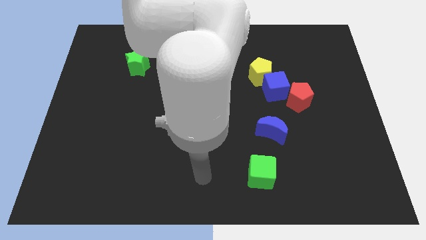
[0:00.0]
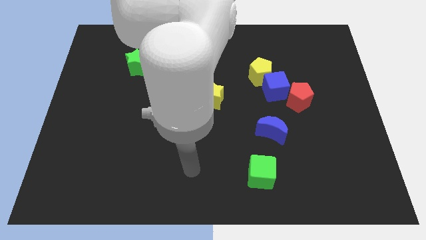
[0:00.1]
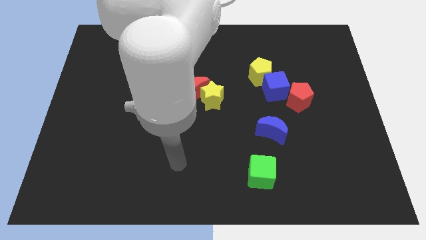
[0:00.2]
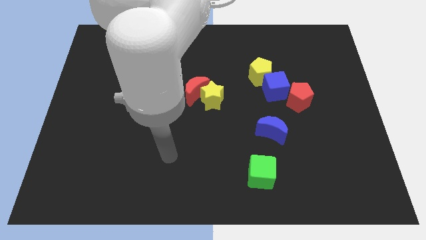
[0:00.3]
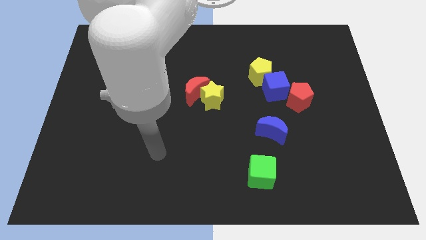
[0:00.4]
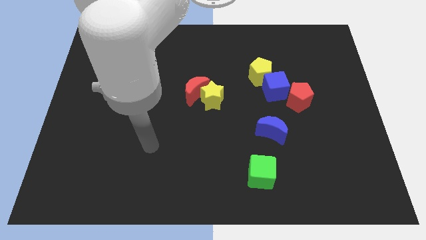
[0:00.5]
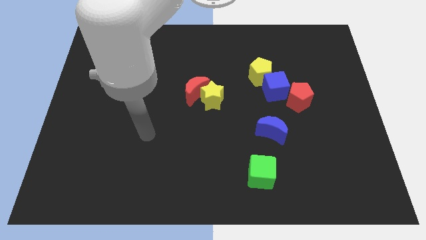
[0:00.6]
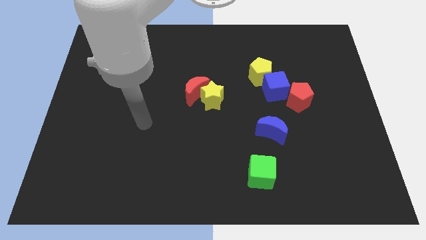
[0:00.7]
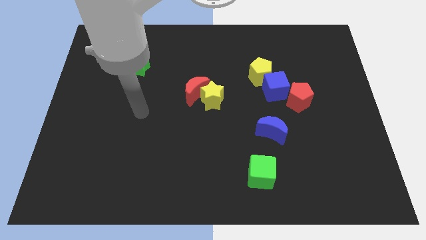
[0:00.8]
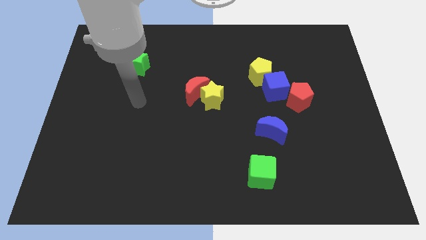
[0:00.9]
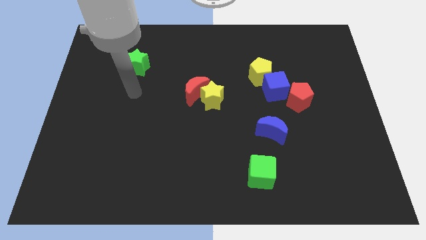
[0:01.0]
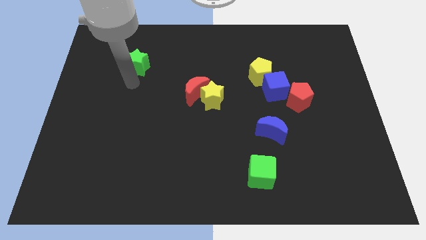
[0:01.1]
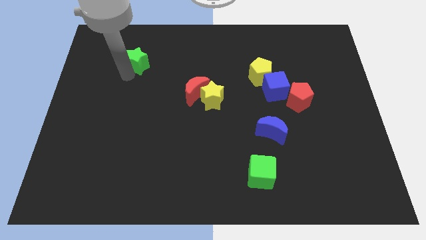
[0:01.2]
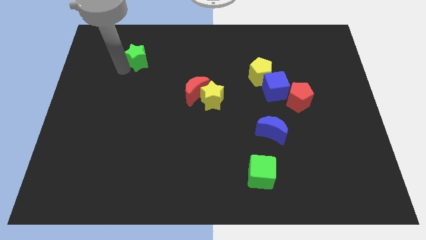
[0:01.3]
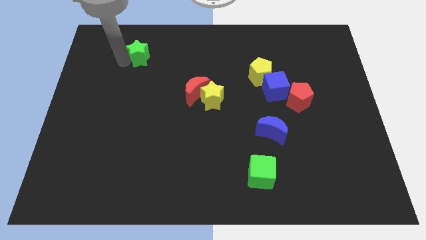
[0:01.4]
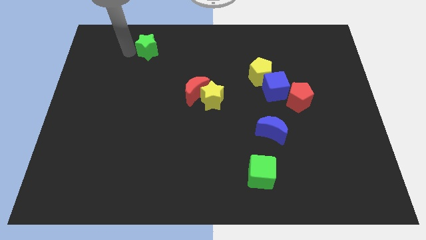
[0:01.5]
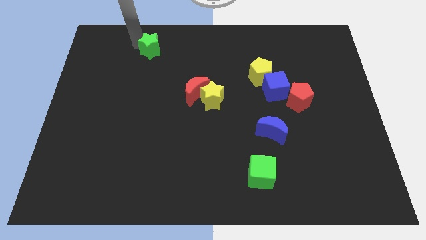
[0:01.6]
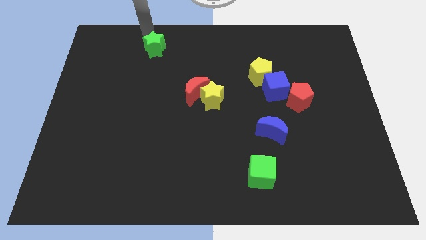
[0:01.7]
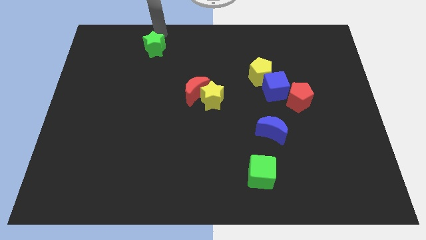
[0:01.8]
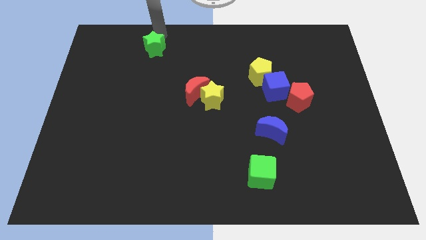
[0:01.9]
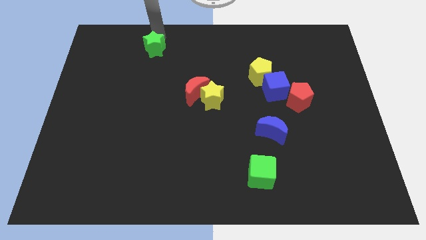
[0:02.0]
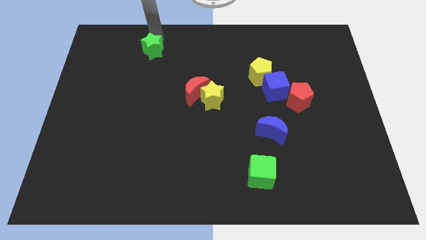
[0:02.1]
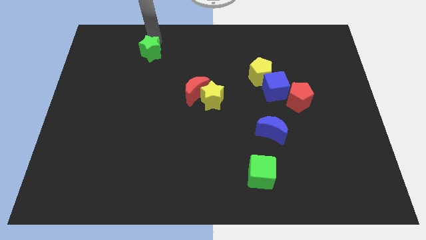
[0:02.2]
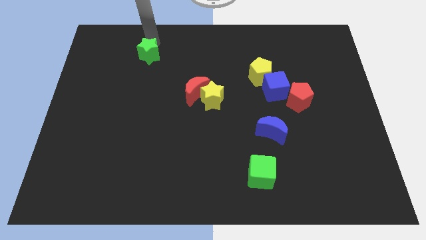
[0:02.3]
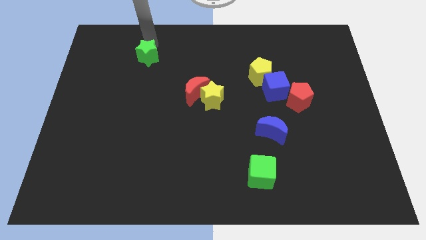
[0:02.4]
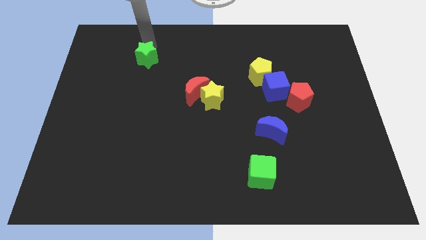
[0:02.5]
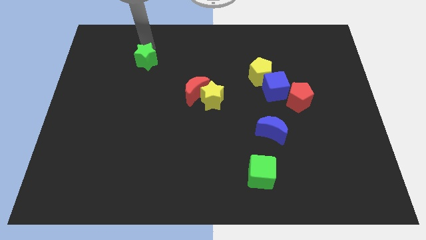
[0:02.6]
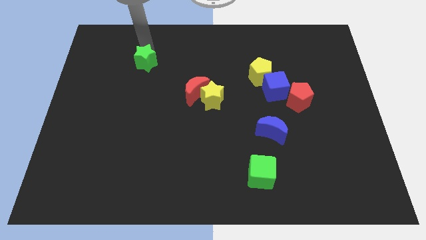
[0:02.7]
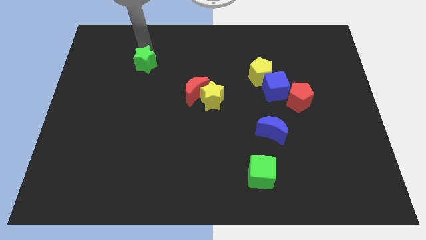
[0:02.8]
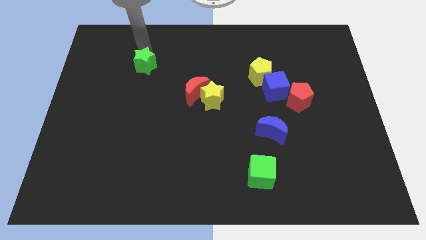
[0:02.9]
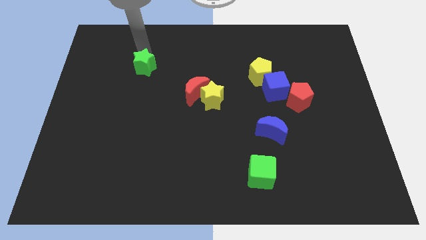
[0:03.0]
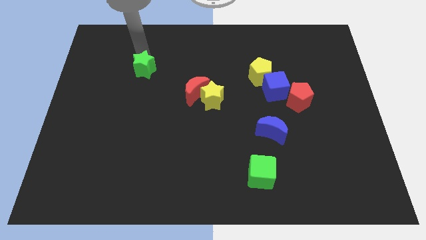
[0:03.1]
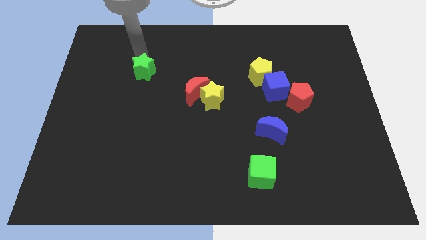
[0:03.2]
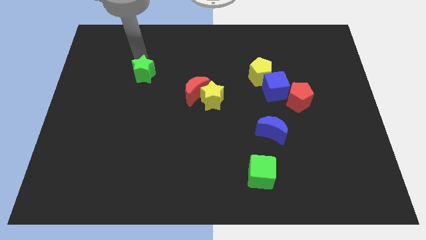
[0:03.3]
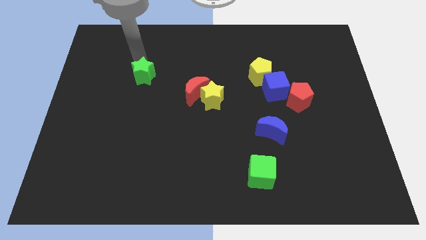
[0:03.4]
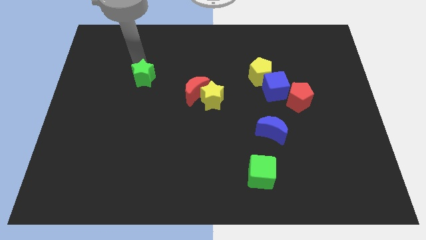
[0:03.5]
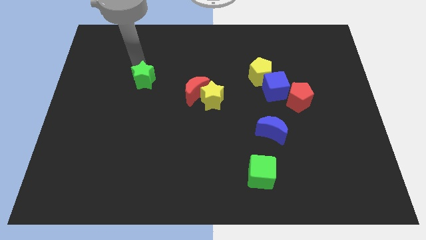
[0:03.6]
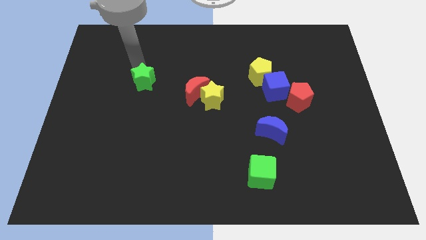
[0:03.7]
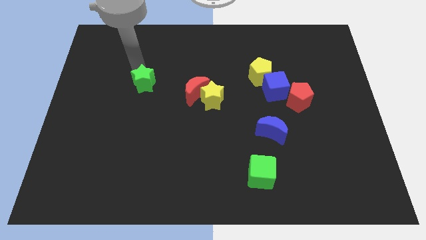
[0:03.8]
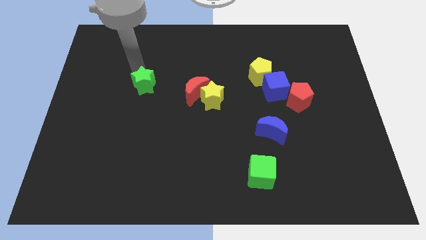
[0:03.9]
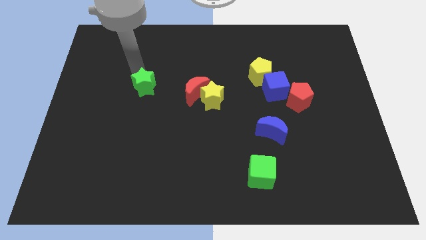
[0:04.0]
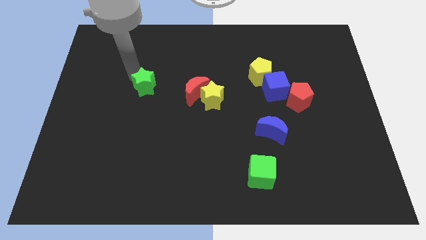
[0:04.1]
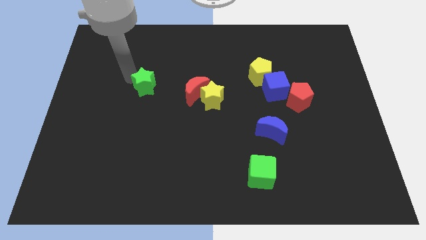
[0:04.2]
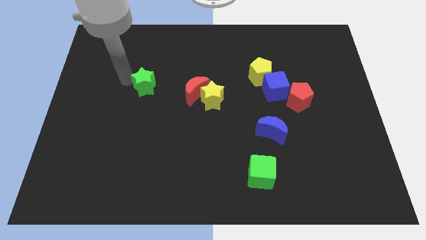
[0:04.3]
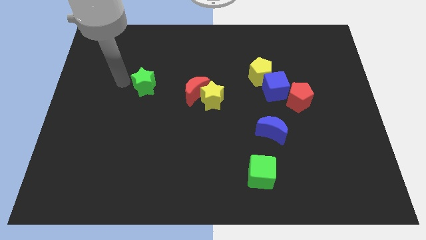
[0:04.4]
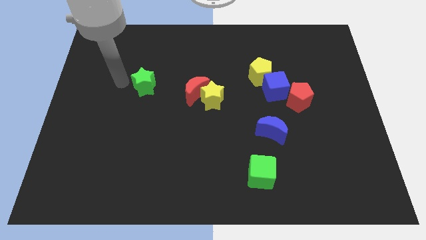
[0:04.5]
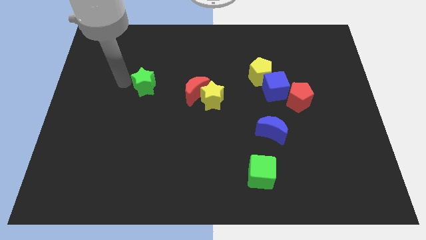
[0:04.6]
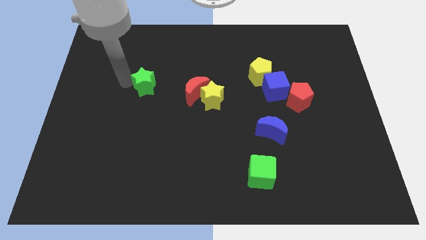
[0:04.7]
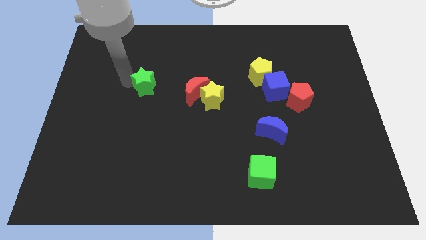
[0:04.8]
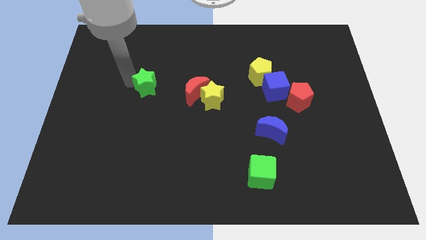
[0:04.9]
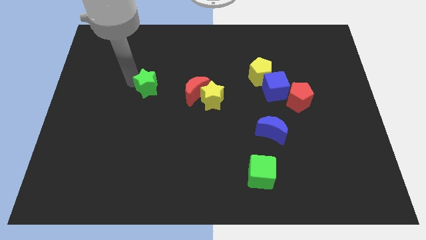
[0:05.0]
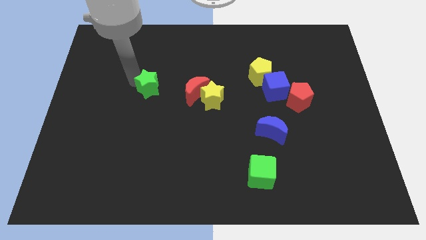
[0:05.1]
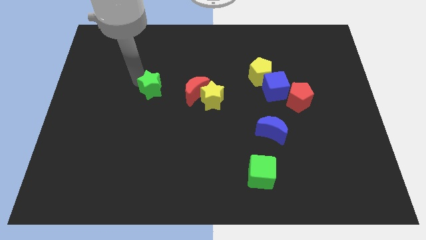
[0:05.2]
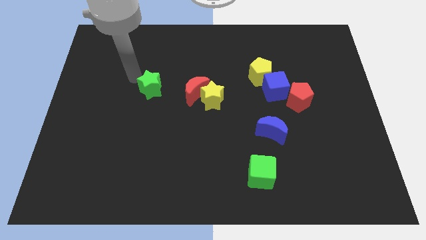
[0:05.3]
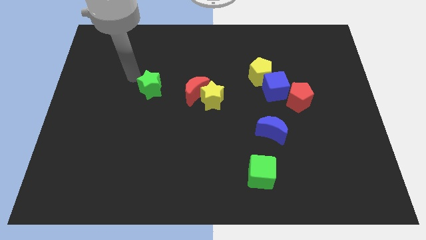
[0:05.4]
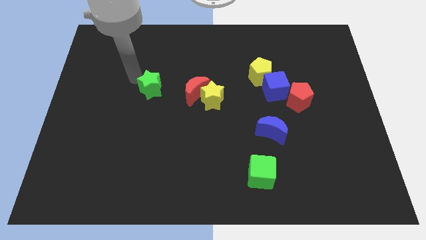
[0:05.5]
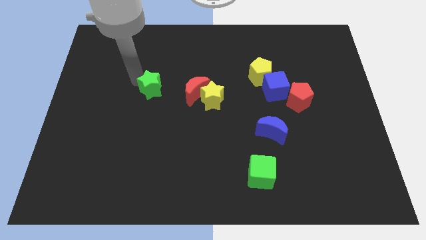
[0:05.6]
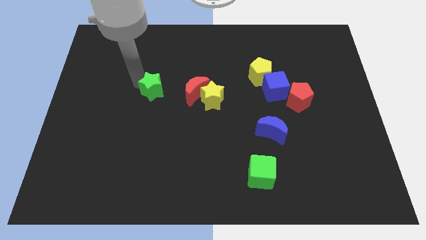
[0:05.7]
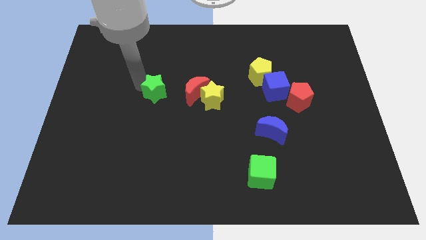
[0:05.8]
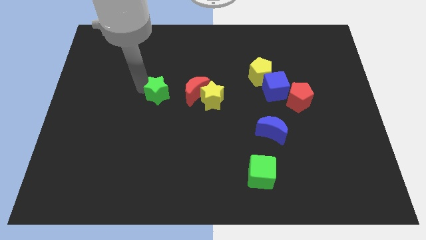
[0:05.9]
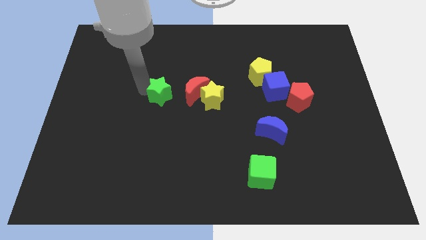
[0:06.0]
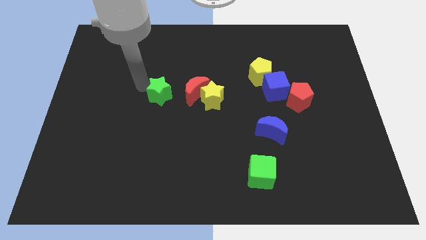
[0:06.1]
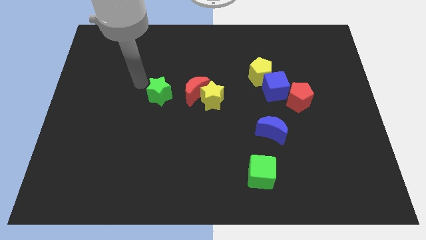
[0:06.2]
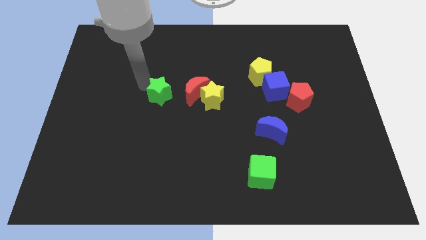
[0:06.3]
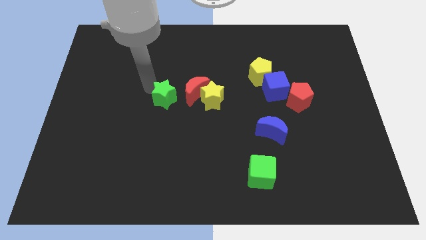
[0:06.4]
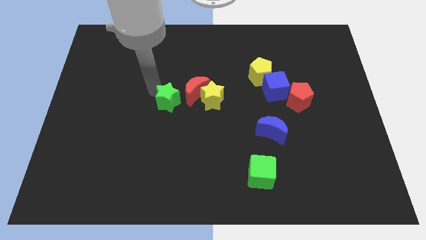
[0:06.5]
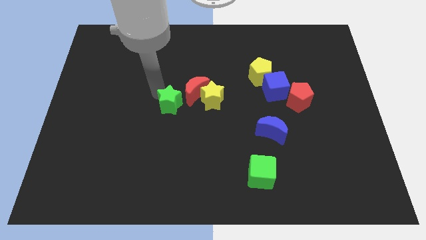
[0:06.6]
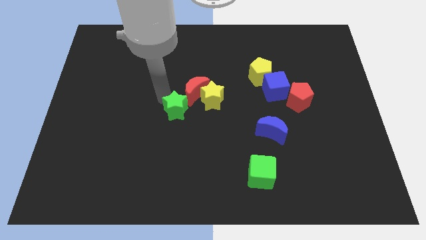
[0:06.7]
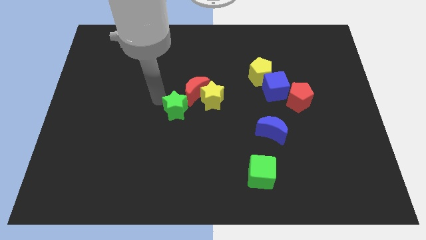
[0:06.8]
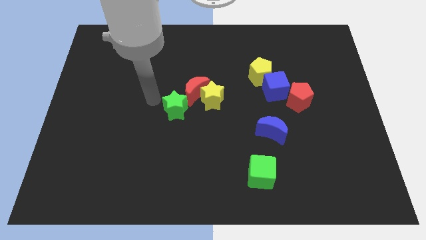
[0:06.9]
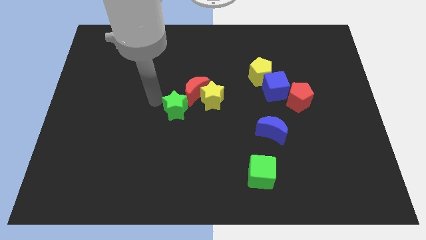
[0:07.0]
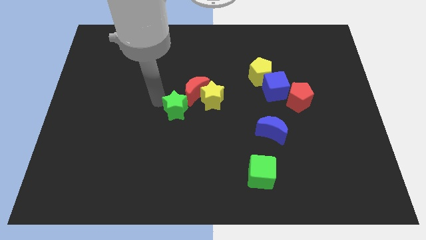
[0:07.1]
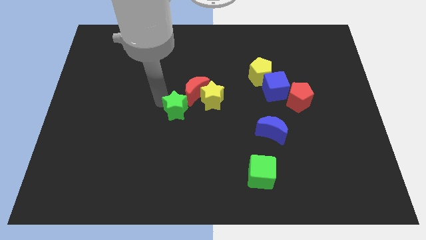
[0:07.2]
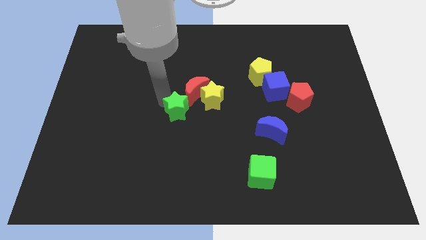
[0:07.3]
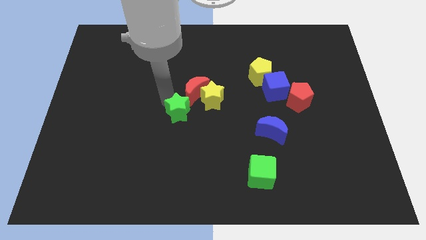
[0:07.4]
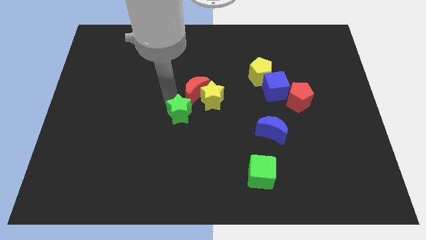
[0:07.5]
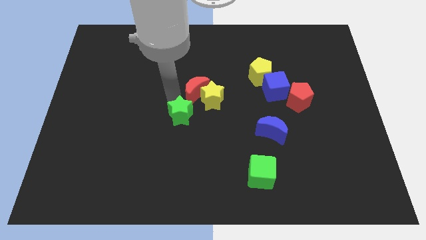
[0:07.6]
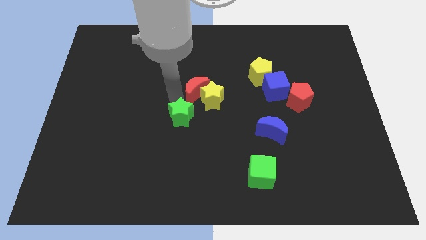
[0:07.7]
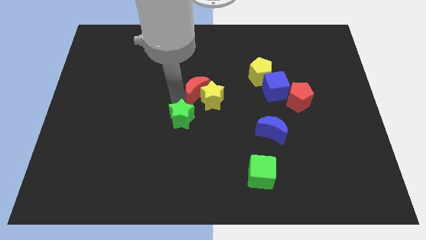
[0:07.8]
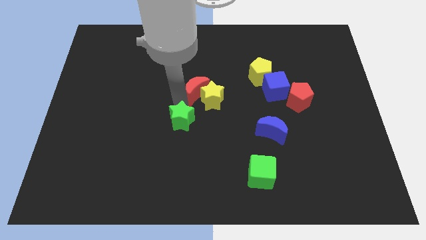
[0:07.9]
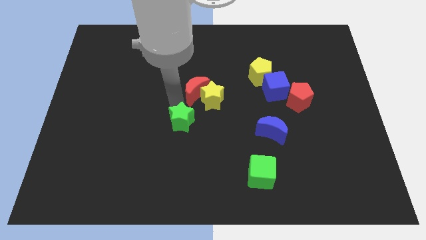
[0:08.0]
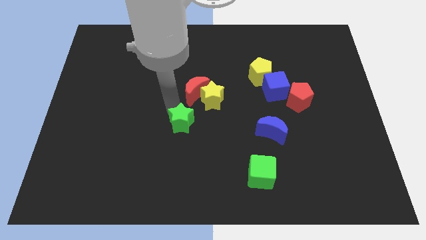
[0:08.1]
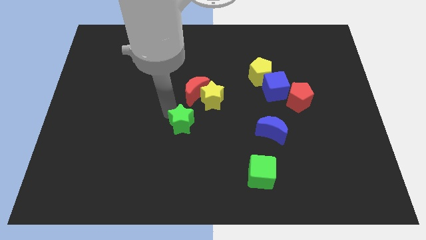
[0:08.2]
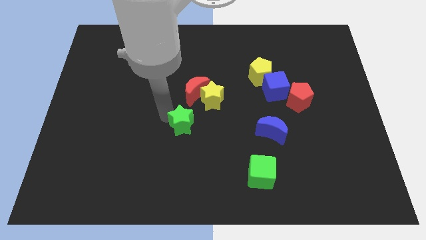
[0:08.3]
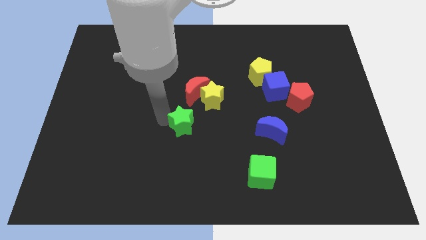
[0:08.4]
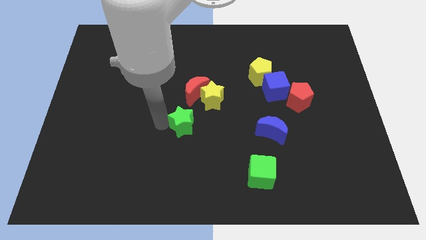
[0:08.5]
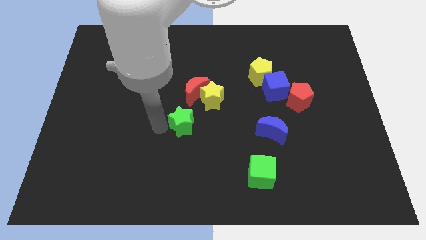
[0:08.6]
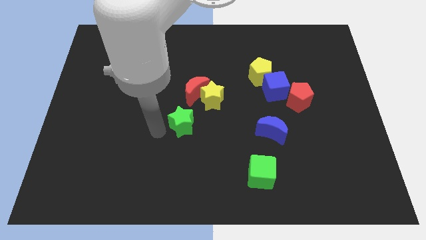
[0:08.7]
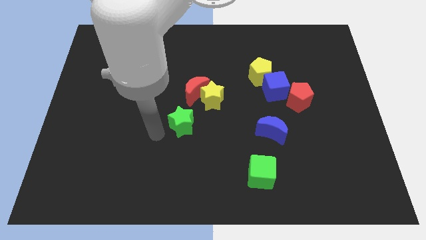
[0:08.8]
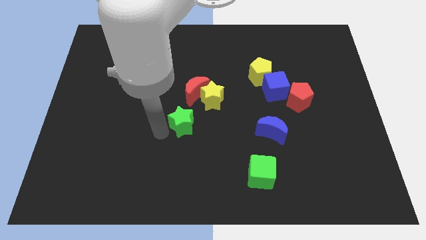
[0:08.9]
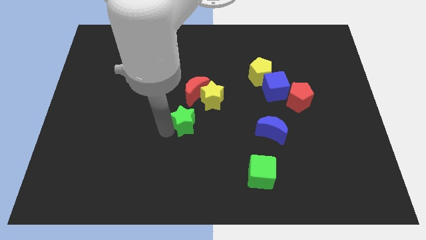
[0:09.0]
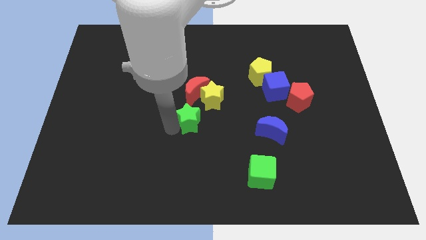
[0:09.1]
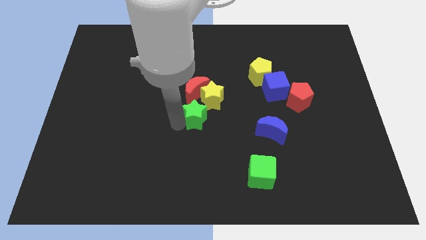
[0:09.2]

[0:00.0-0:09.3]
slide the green star to the bottom of the yellow star
